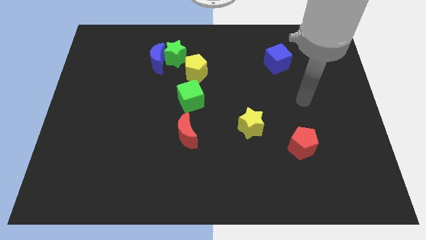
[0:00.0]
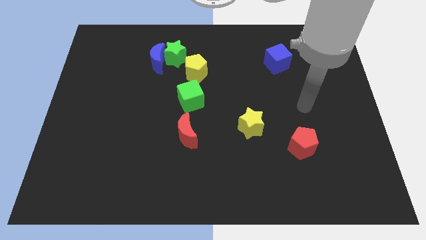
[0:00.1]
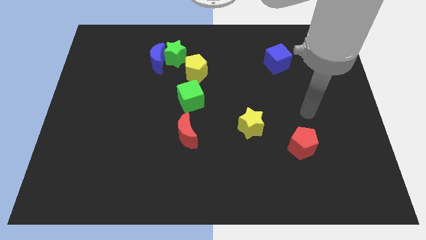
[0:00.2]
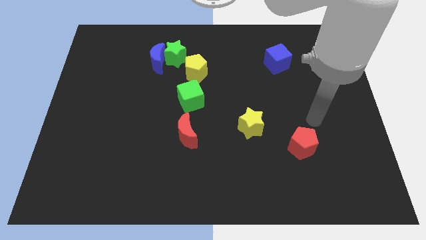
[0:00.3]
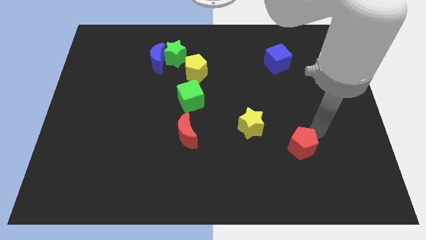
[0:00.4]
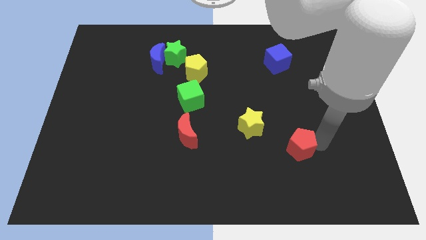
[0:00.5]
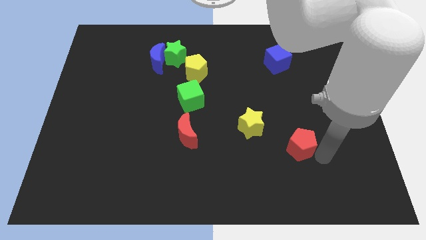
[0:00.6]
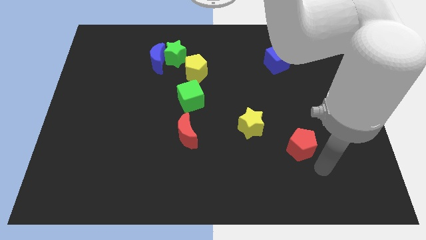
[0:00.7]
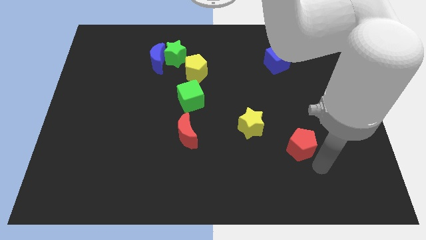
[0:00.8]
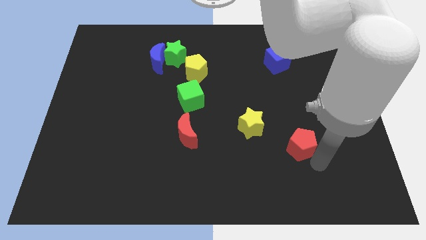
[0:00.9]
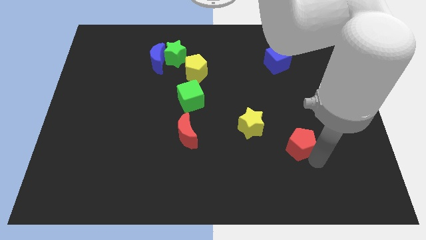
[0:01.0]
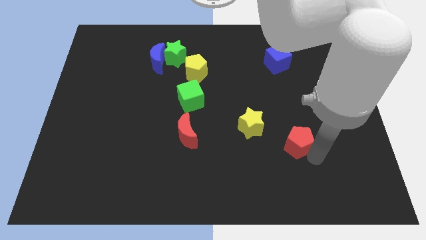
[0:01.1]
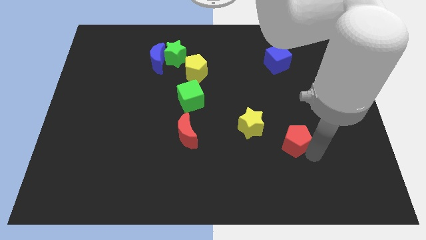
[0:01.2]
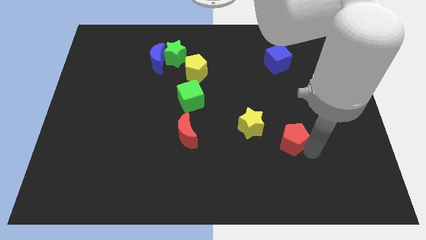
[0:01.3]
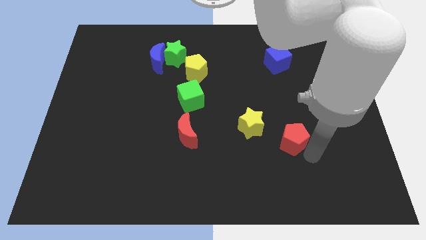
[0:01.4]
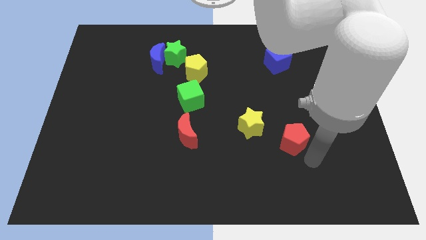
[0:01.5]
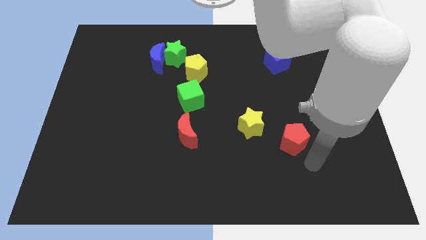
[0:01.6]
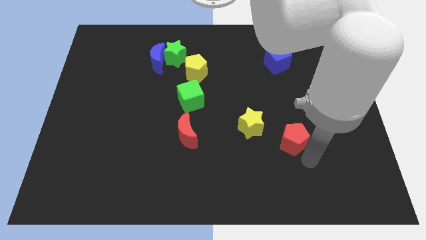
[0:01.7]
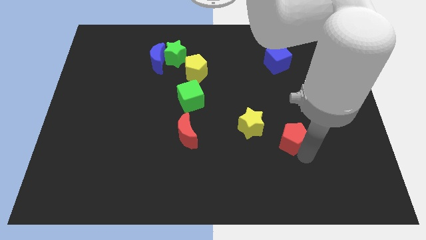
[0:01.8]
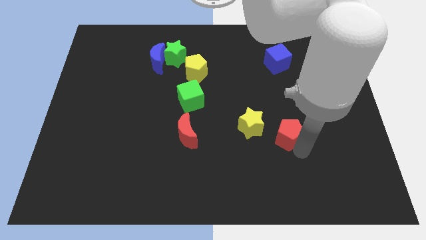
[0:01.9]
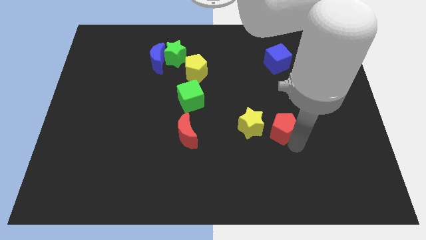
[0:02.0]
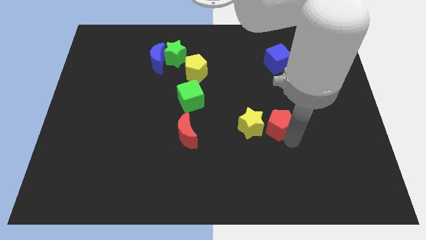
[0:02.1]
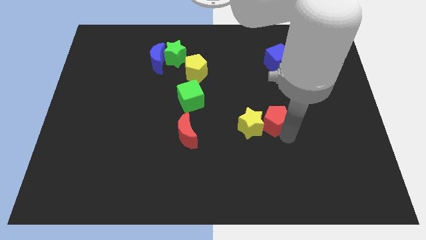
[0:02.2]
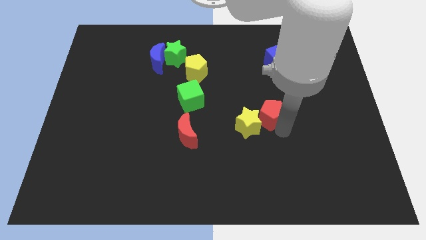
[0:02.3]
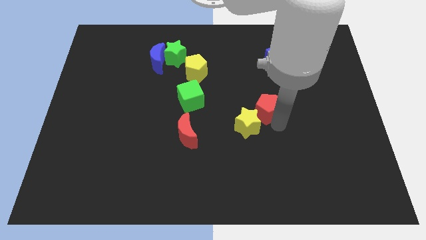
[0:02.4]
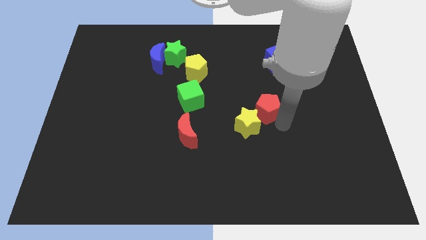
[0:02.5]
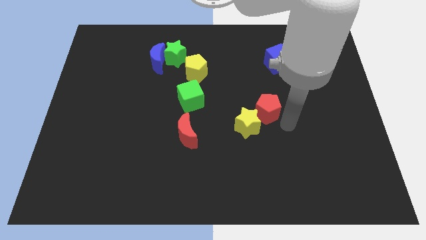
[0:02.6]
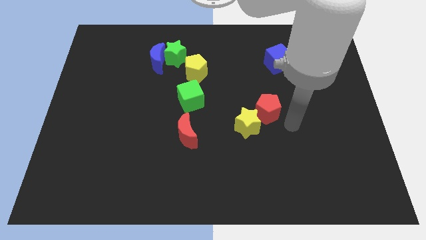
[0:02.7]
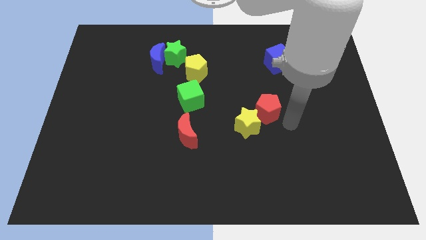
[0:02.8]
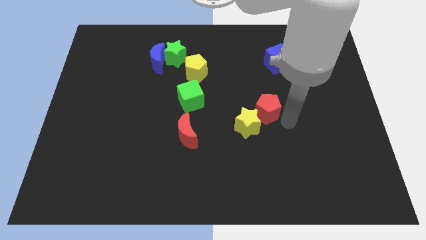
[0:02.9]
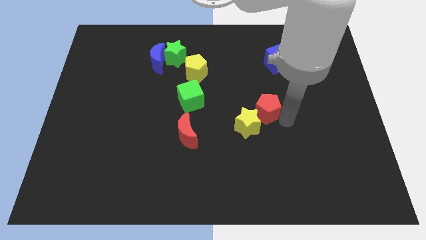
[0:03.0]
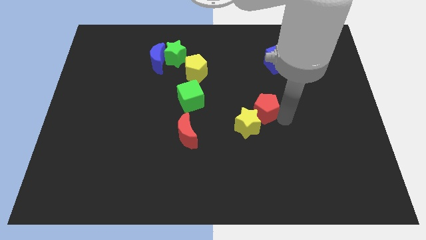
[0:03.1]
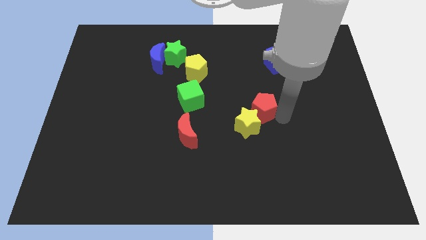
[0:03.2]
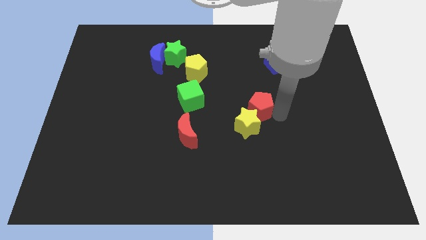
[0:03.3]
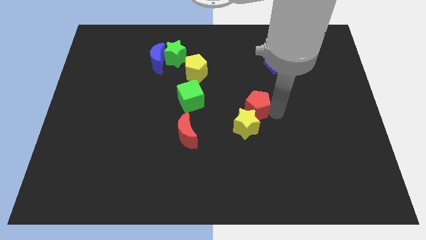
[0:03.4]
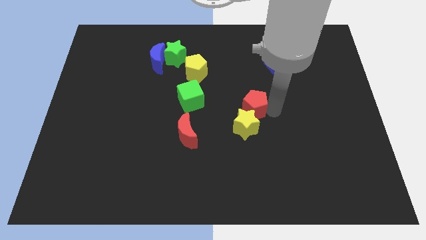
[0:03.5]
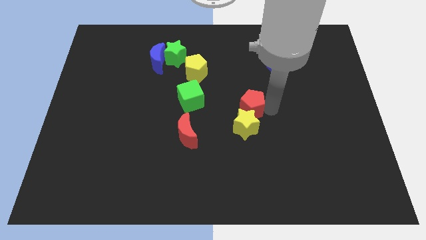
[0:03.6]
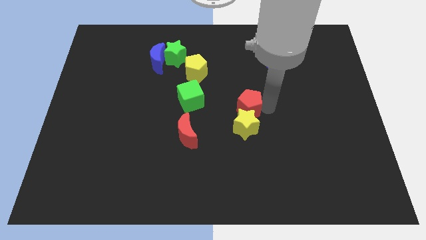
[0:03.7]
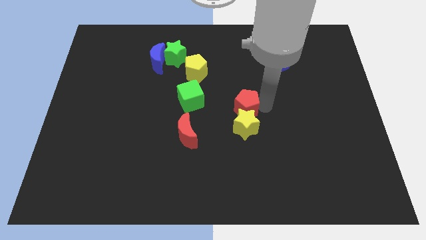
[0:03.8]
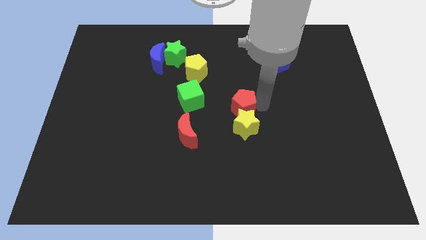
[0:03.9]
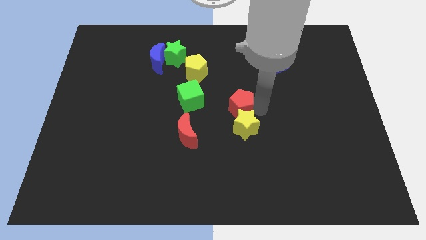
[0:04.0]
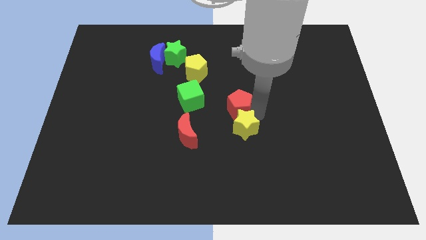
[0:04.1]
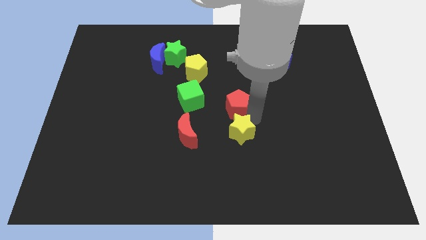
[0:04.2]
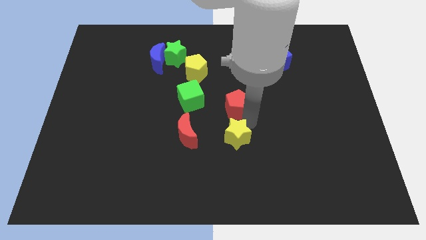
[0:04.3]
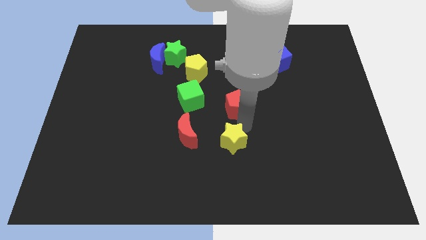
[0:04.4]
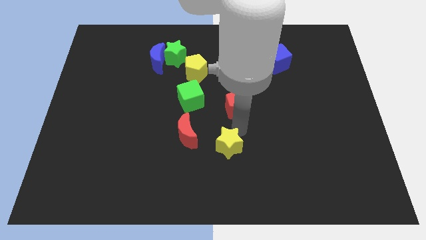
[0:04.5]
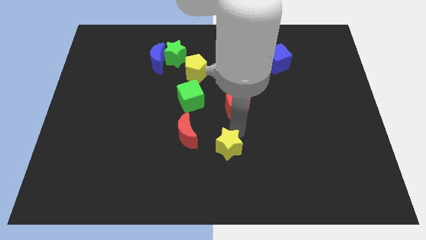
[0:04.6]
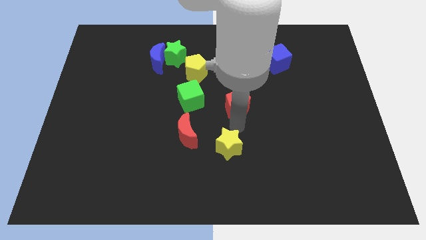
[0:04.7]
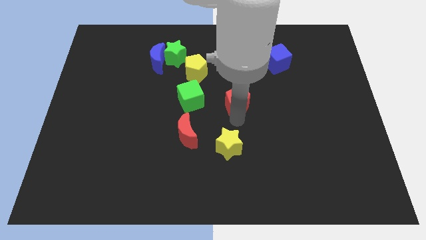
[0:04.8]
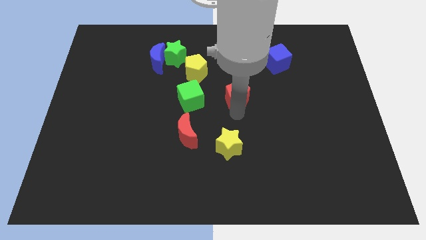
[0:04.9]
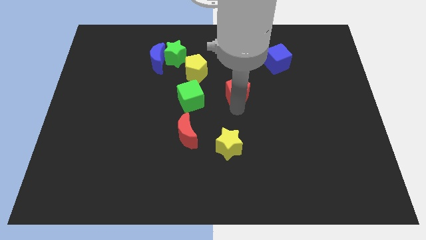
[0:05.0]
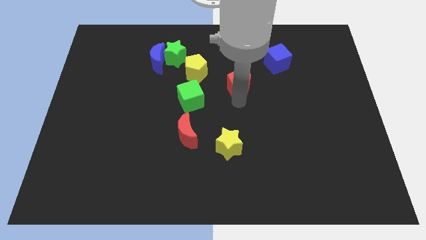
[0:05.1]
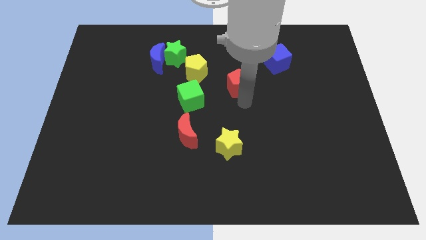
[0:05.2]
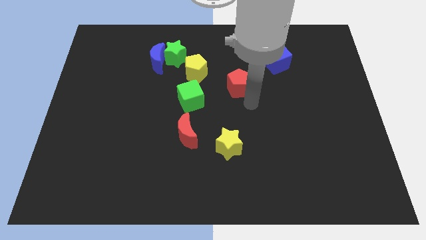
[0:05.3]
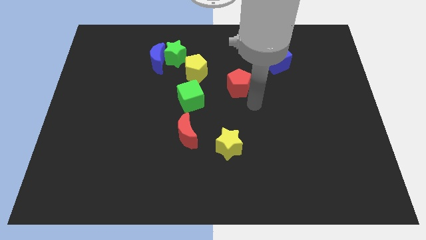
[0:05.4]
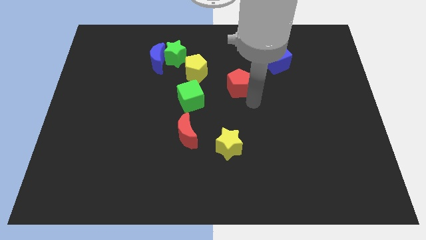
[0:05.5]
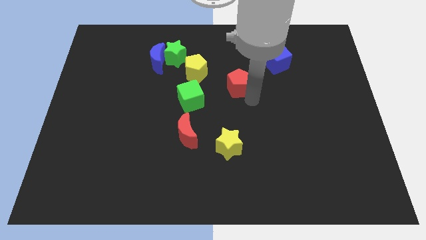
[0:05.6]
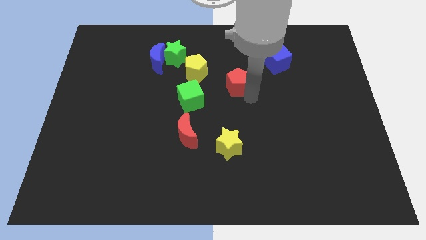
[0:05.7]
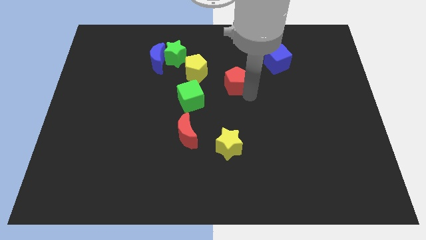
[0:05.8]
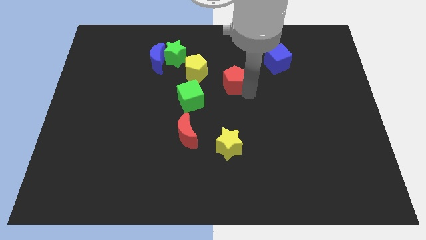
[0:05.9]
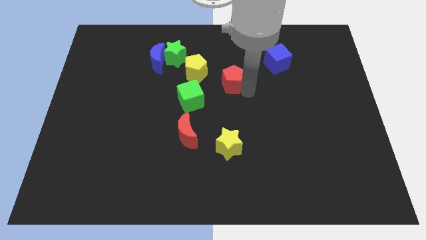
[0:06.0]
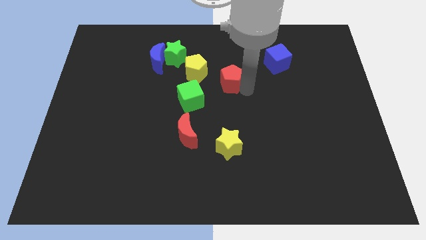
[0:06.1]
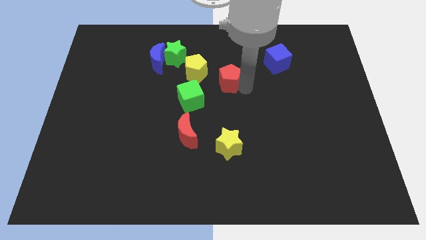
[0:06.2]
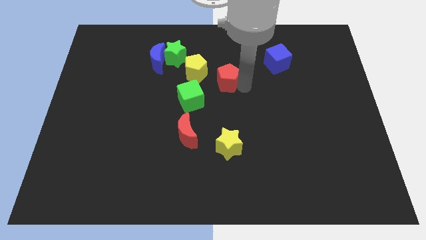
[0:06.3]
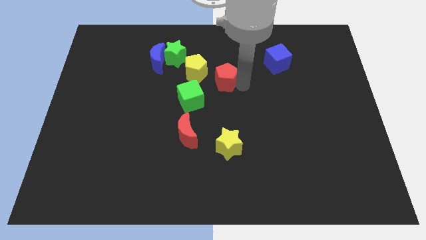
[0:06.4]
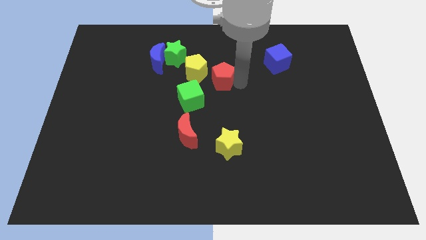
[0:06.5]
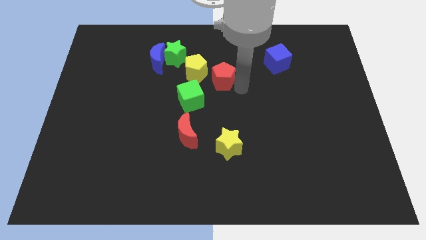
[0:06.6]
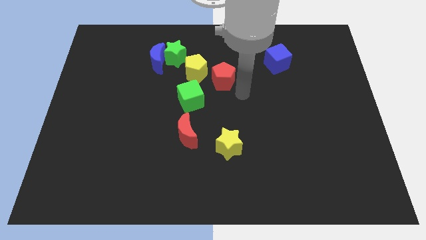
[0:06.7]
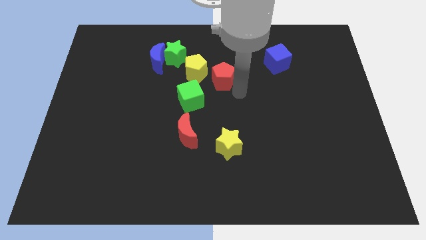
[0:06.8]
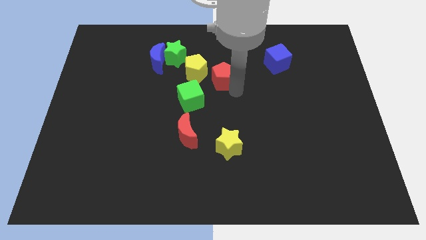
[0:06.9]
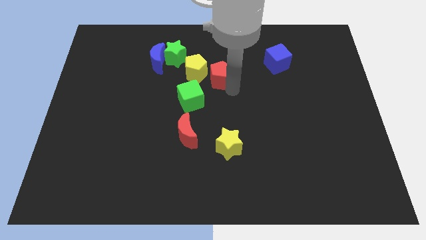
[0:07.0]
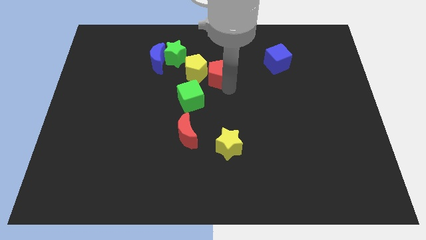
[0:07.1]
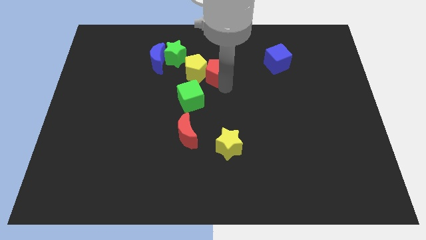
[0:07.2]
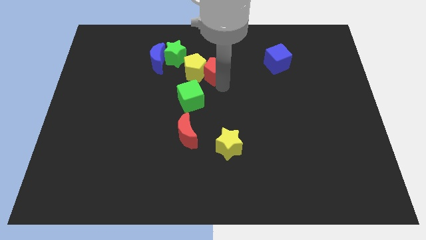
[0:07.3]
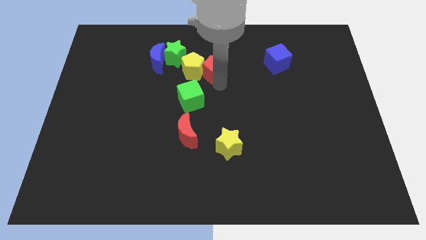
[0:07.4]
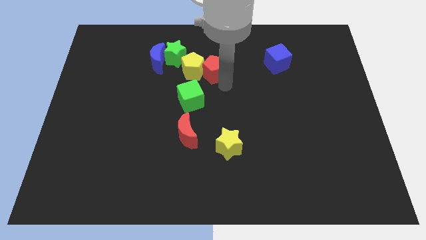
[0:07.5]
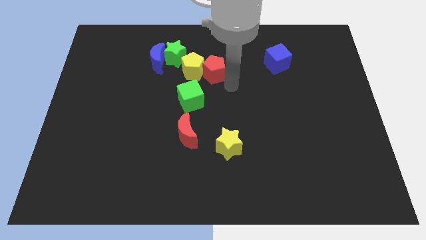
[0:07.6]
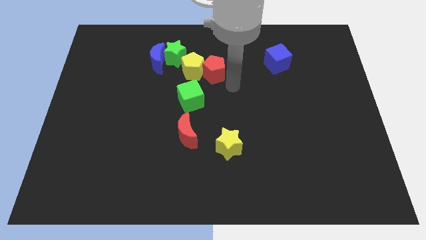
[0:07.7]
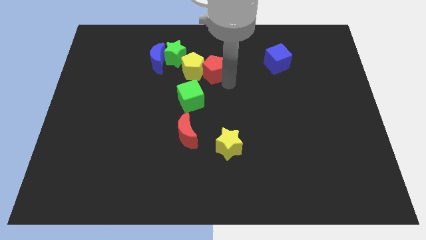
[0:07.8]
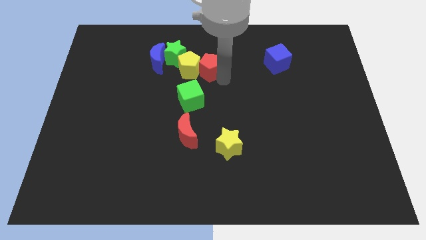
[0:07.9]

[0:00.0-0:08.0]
push the red pentagon to the right of the blue moon
